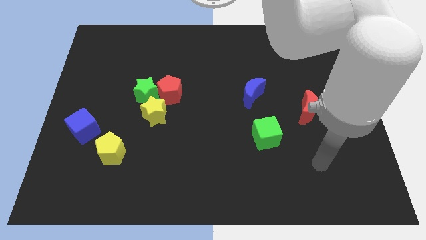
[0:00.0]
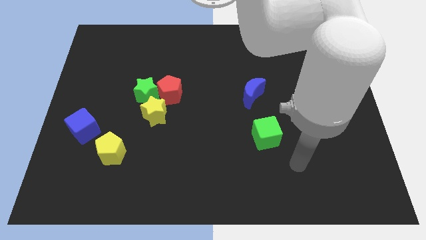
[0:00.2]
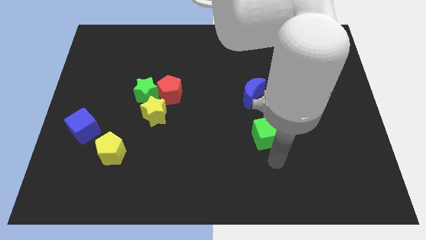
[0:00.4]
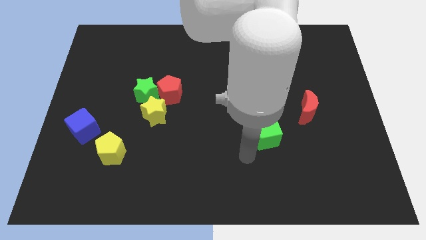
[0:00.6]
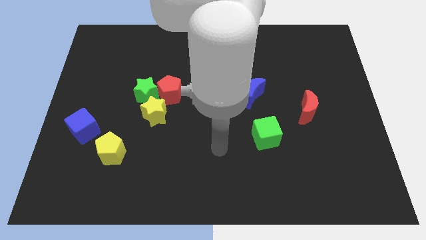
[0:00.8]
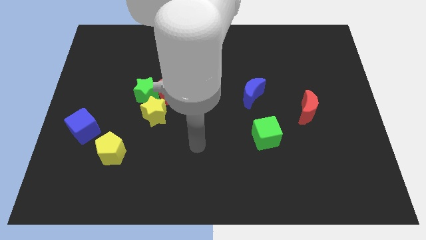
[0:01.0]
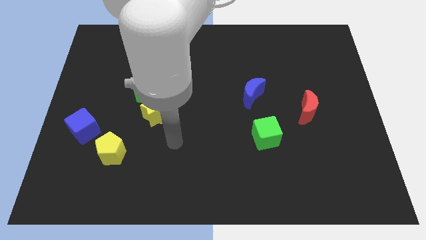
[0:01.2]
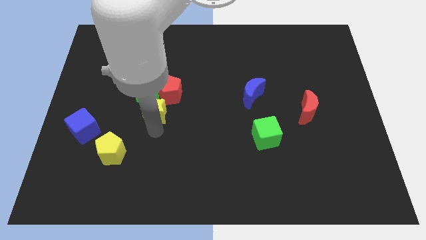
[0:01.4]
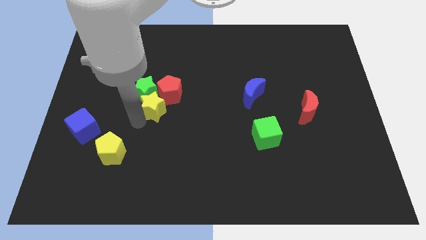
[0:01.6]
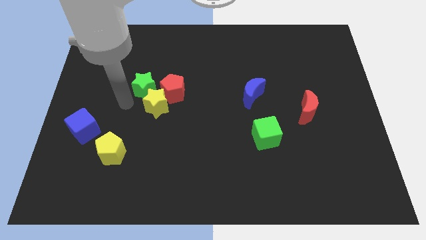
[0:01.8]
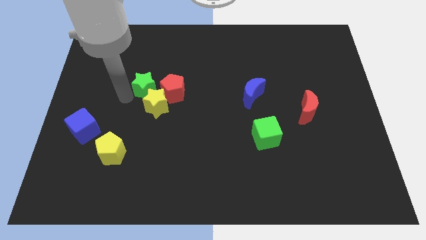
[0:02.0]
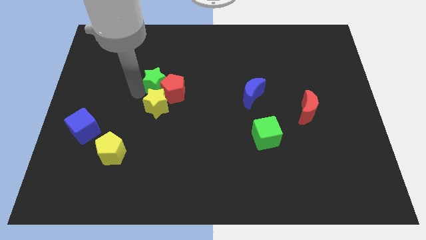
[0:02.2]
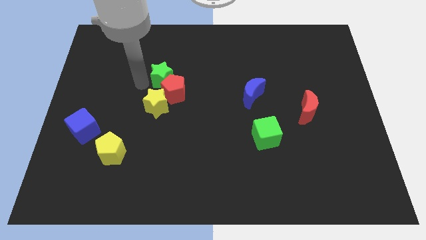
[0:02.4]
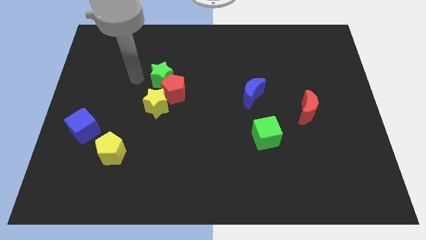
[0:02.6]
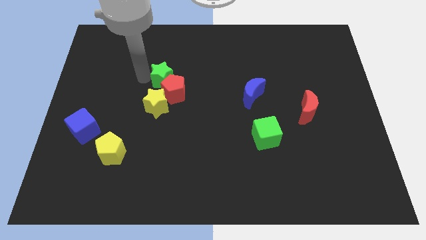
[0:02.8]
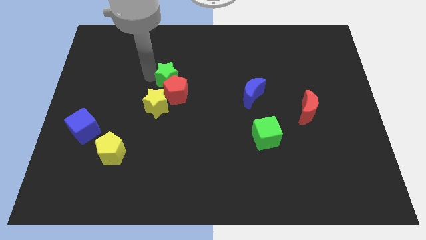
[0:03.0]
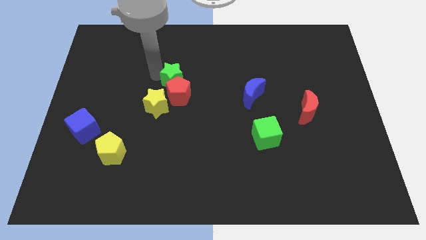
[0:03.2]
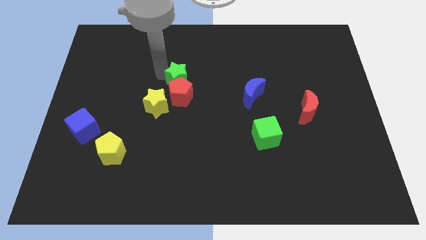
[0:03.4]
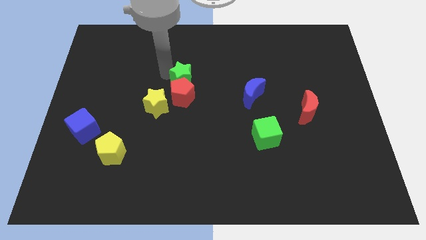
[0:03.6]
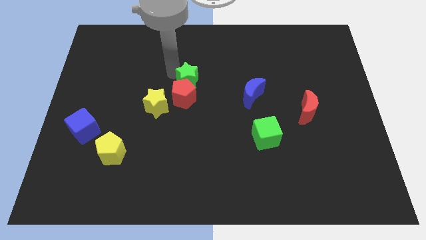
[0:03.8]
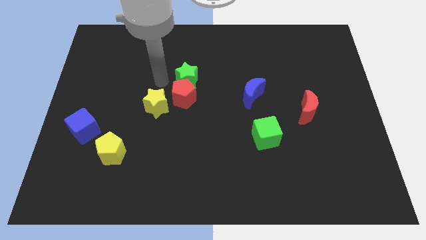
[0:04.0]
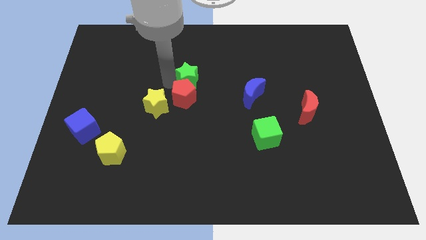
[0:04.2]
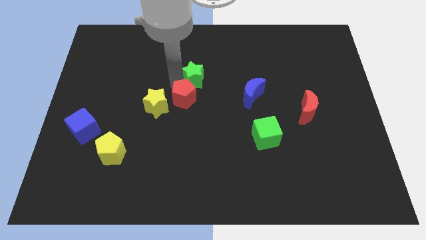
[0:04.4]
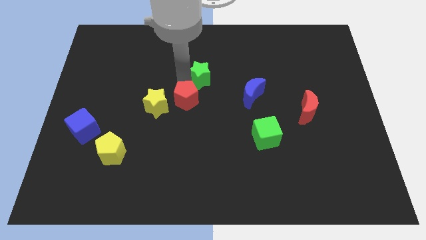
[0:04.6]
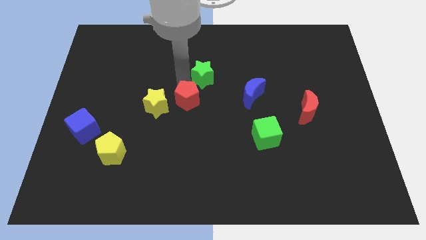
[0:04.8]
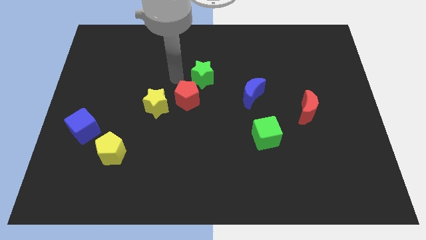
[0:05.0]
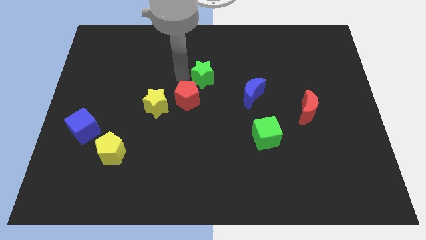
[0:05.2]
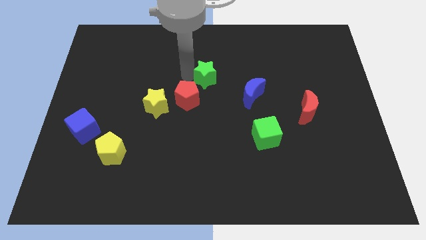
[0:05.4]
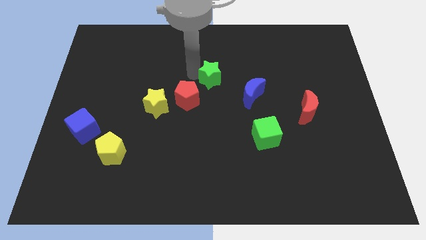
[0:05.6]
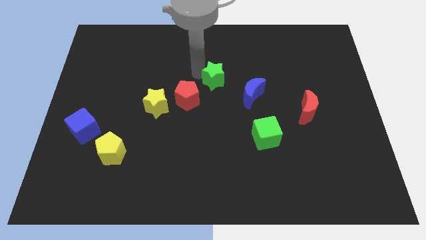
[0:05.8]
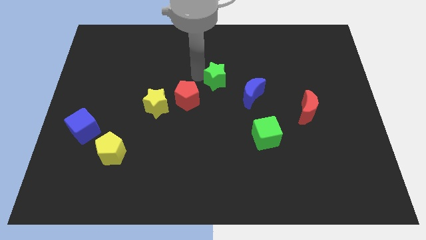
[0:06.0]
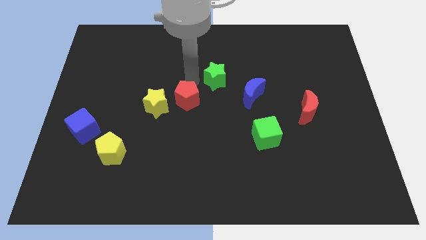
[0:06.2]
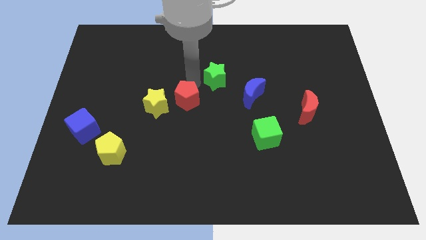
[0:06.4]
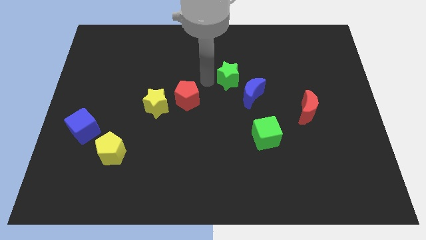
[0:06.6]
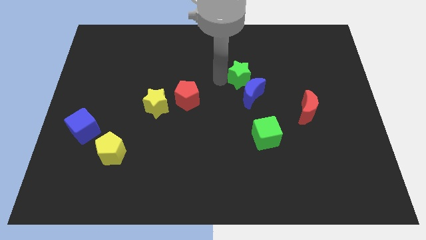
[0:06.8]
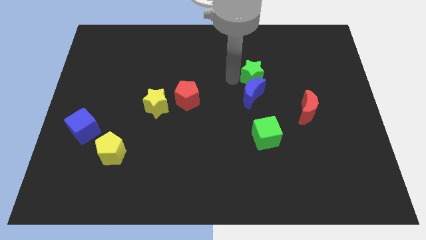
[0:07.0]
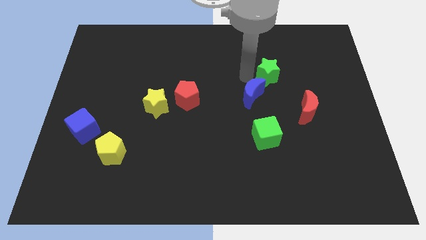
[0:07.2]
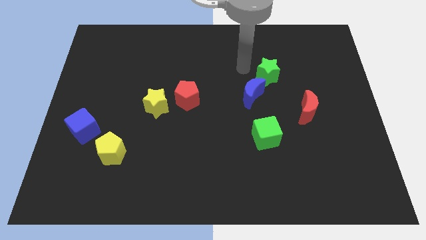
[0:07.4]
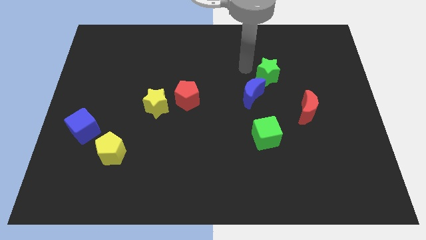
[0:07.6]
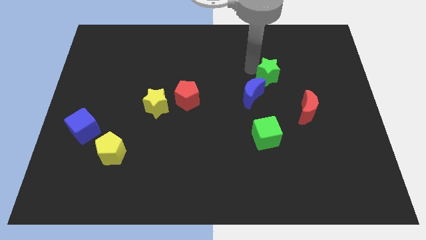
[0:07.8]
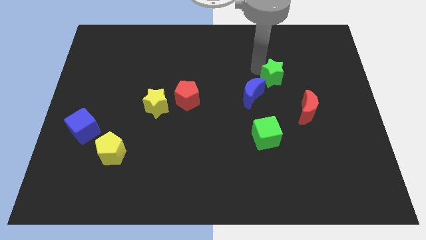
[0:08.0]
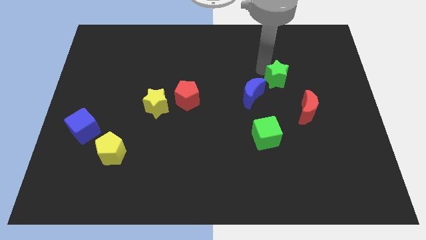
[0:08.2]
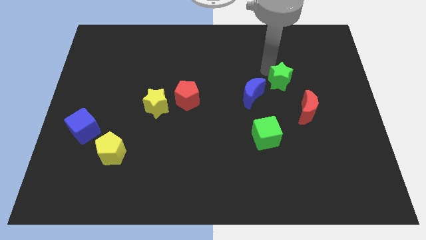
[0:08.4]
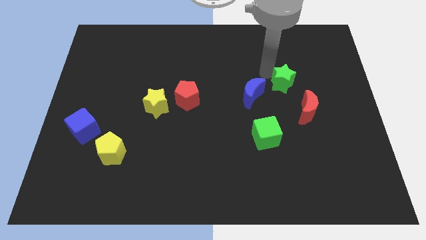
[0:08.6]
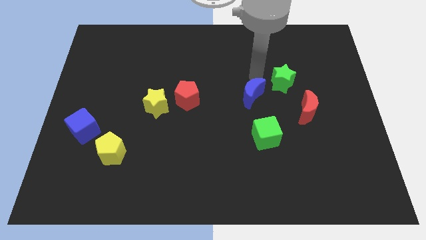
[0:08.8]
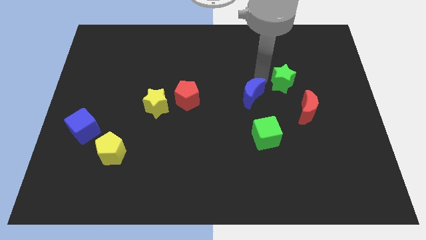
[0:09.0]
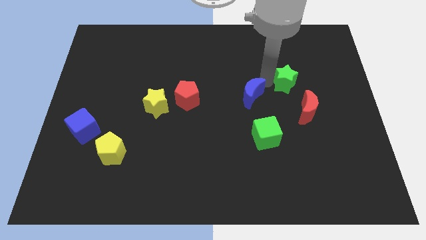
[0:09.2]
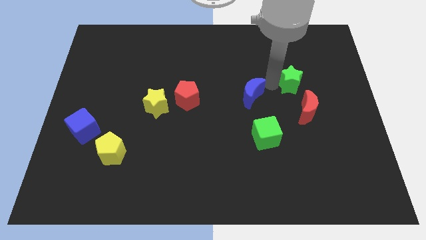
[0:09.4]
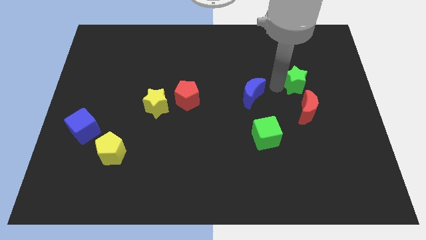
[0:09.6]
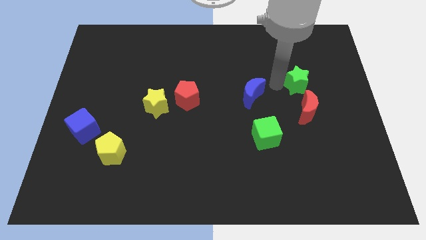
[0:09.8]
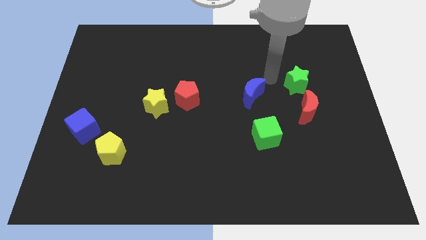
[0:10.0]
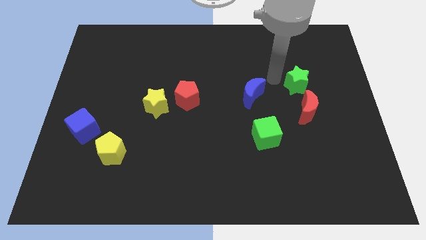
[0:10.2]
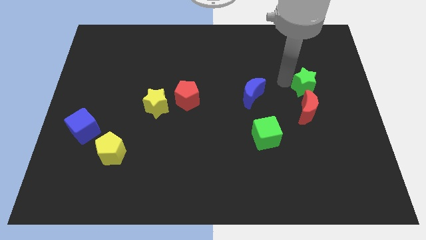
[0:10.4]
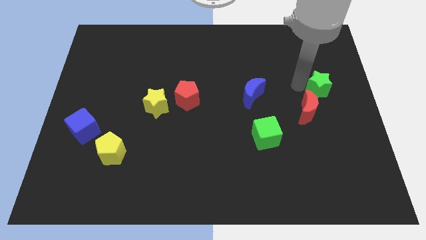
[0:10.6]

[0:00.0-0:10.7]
slide the green star to the right side

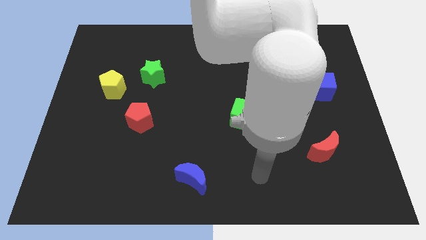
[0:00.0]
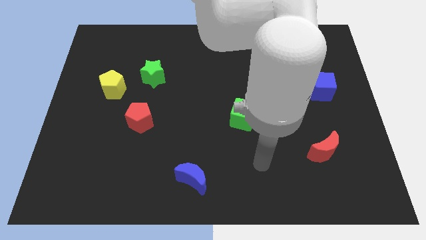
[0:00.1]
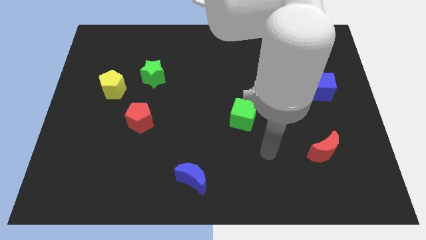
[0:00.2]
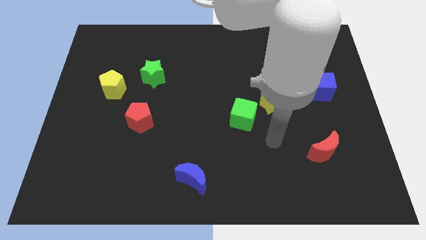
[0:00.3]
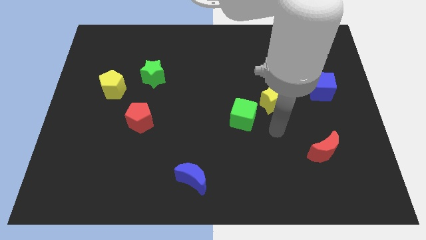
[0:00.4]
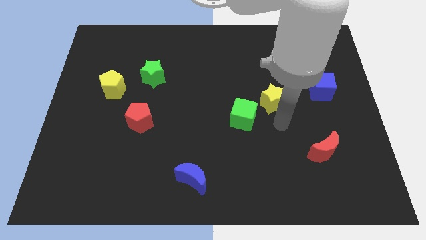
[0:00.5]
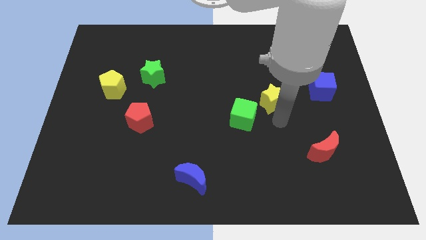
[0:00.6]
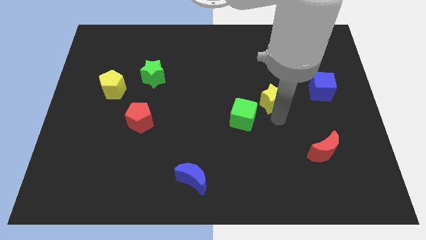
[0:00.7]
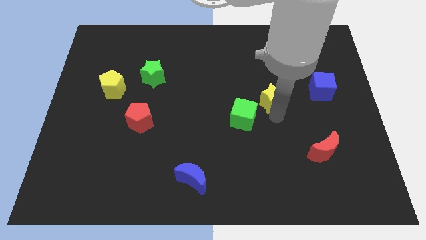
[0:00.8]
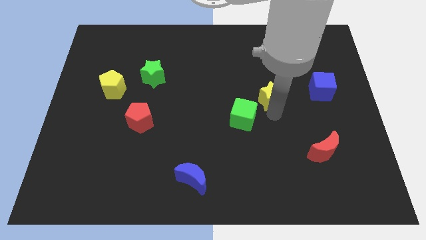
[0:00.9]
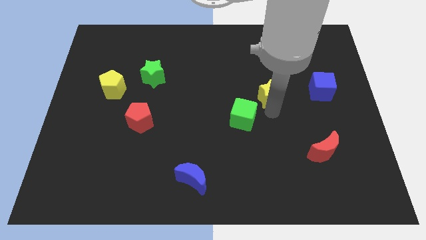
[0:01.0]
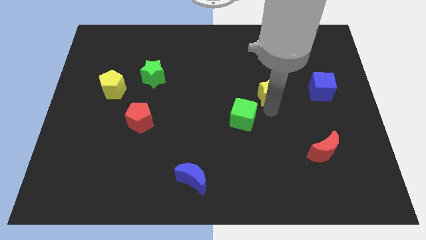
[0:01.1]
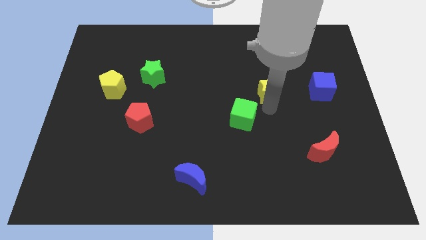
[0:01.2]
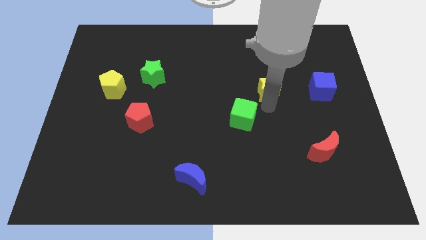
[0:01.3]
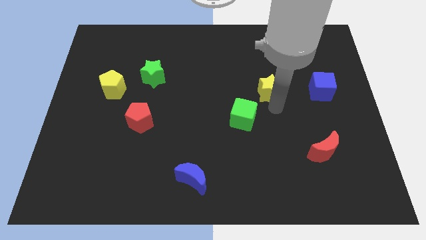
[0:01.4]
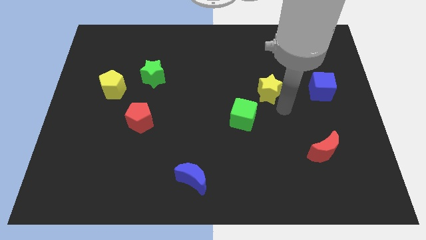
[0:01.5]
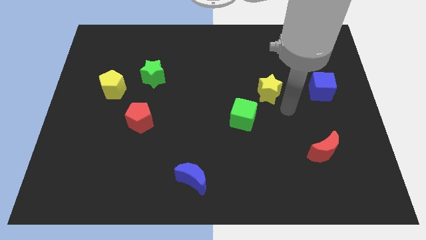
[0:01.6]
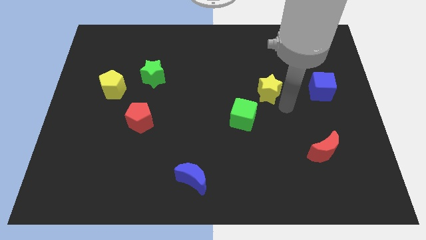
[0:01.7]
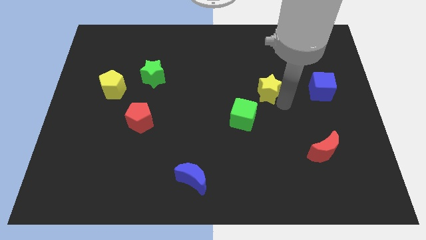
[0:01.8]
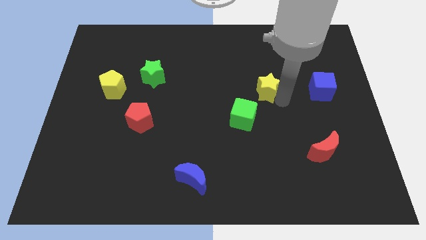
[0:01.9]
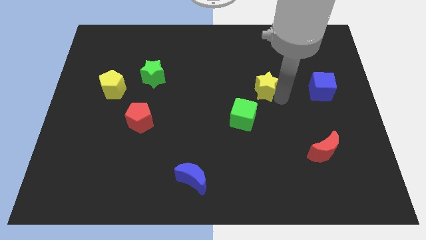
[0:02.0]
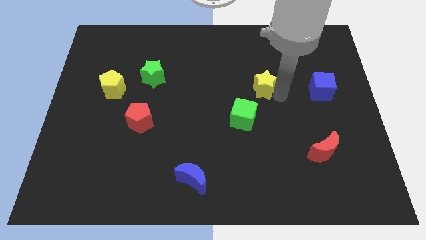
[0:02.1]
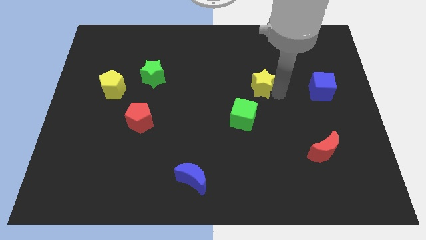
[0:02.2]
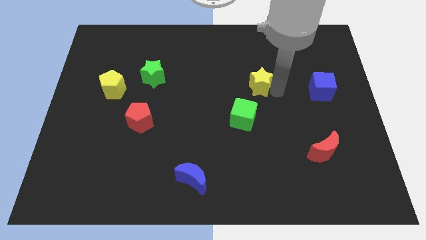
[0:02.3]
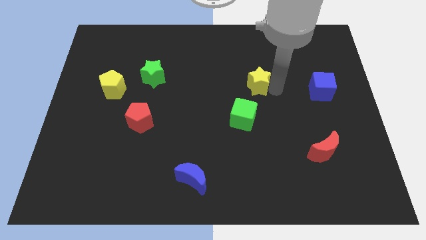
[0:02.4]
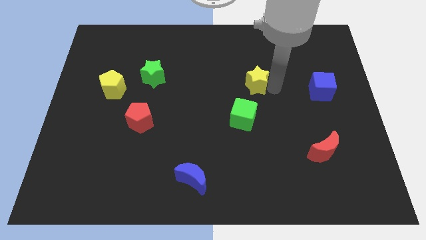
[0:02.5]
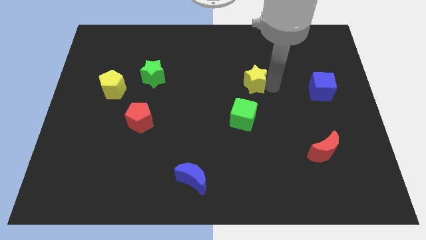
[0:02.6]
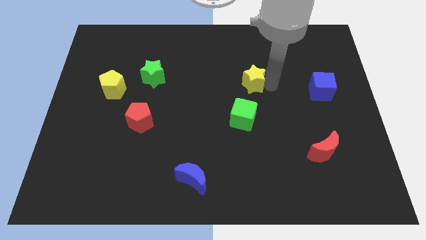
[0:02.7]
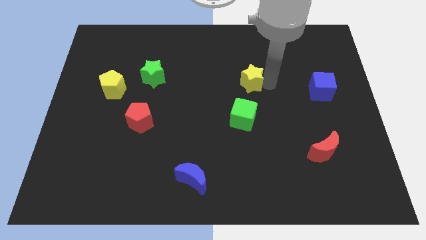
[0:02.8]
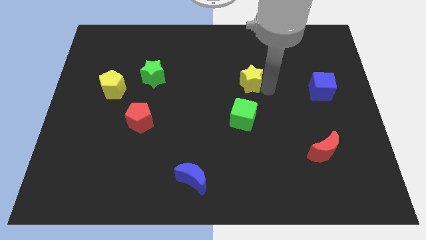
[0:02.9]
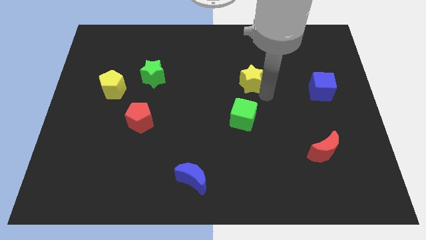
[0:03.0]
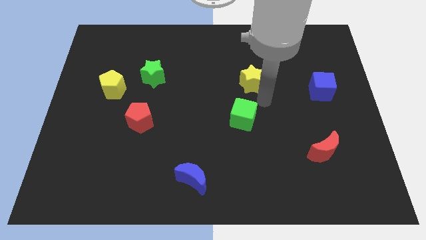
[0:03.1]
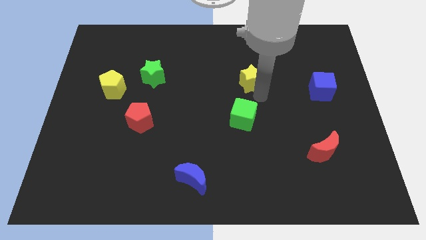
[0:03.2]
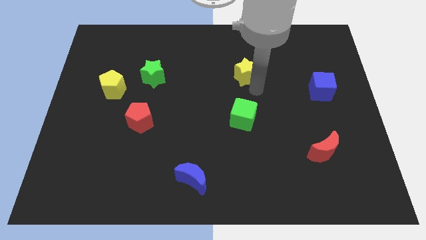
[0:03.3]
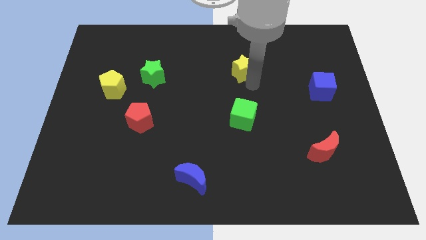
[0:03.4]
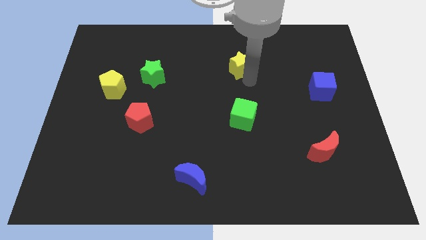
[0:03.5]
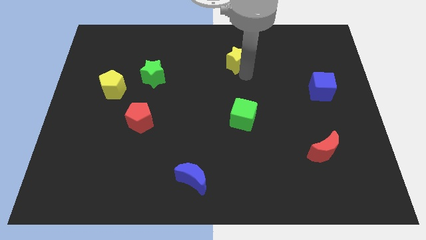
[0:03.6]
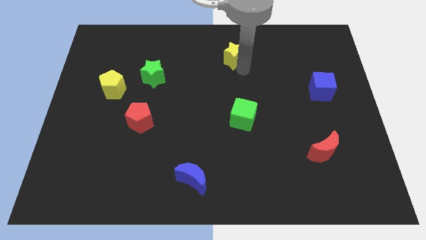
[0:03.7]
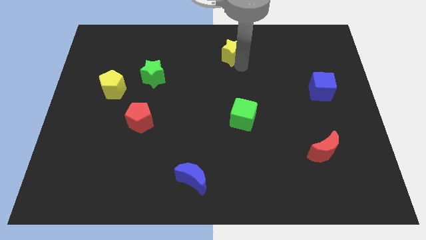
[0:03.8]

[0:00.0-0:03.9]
put the yellow star to the top
